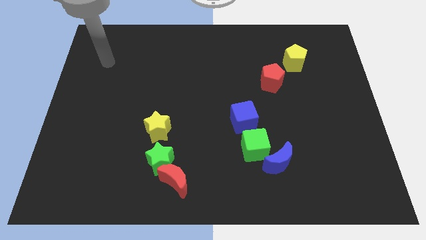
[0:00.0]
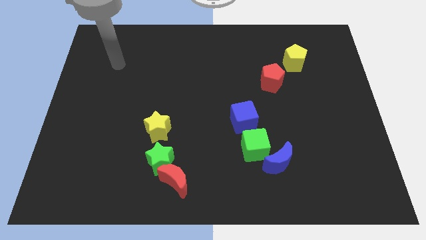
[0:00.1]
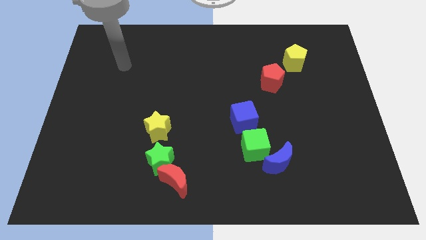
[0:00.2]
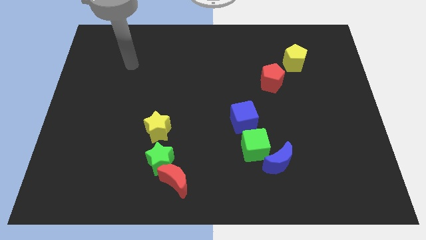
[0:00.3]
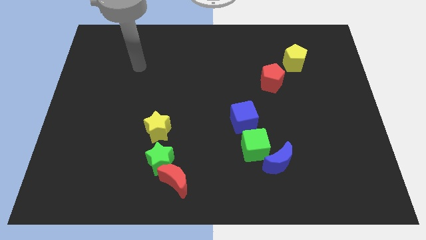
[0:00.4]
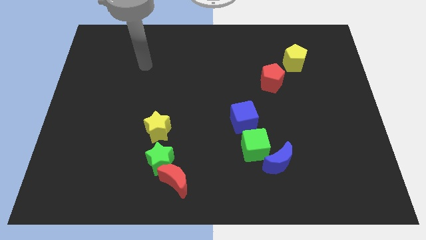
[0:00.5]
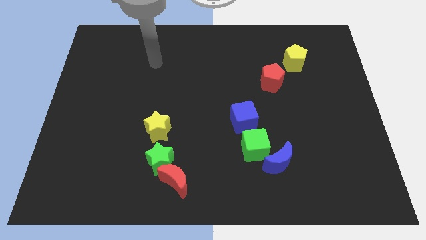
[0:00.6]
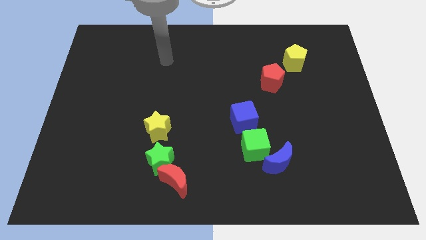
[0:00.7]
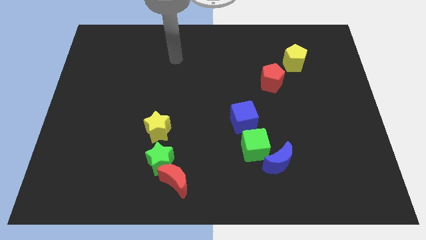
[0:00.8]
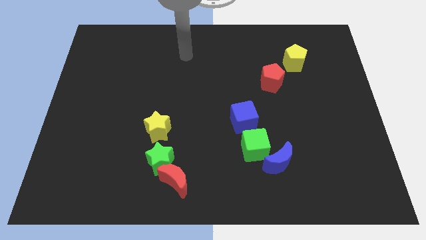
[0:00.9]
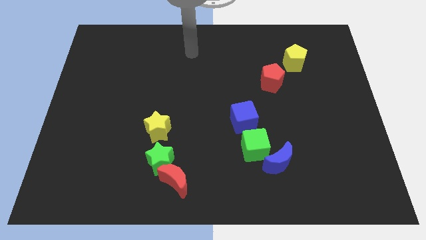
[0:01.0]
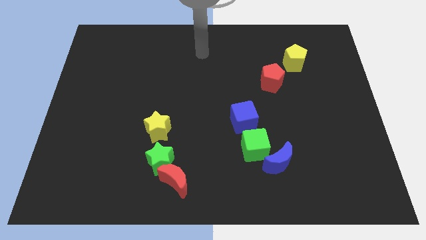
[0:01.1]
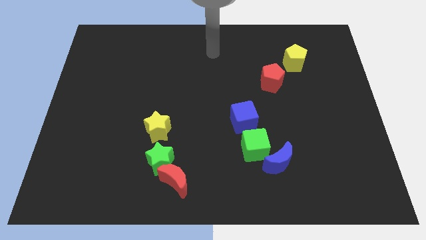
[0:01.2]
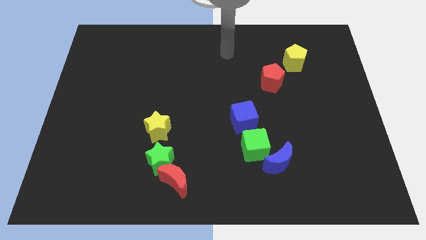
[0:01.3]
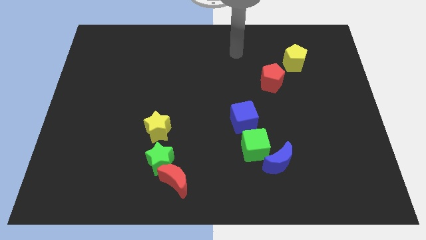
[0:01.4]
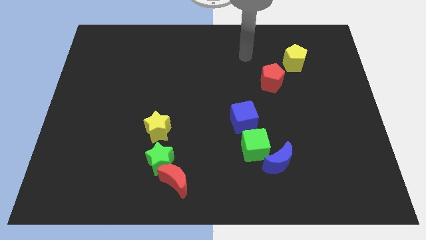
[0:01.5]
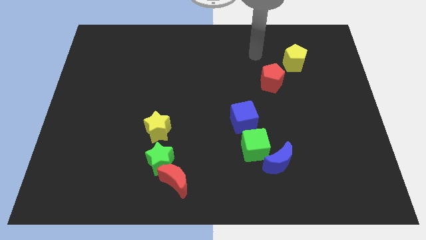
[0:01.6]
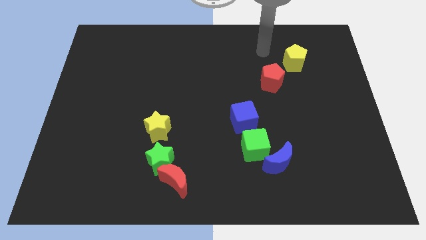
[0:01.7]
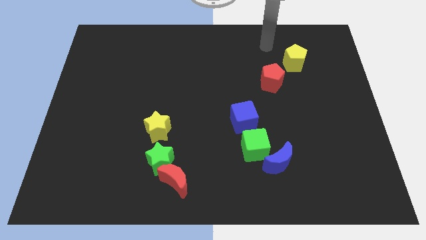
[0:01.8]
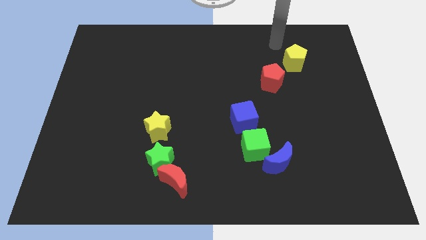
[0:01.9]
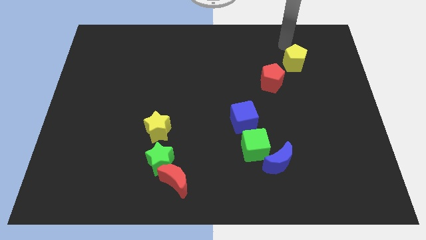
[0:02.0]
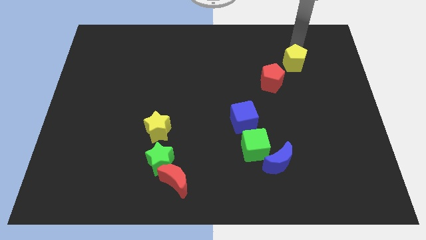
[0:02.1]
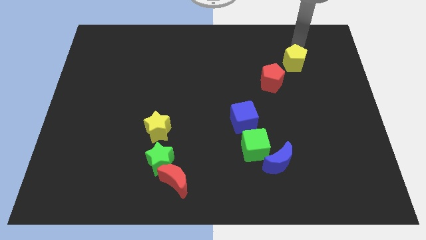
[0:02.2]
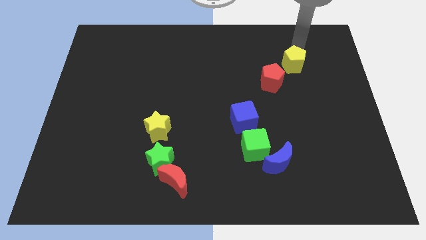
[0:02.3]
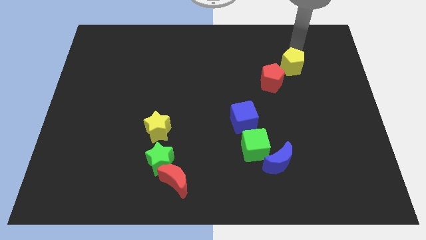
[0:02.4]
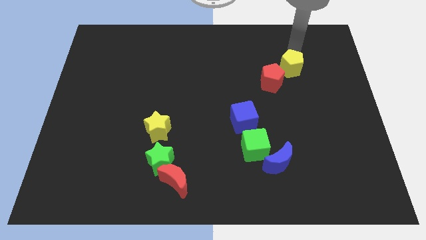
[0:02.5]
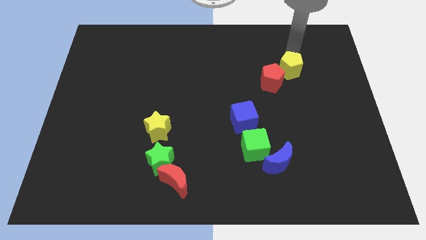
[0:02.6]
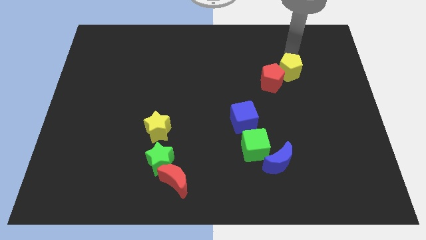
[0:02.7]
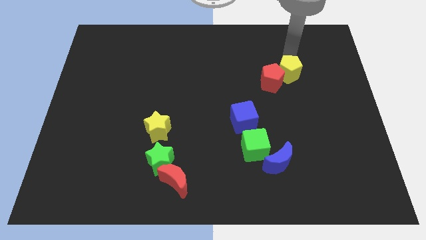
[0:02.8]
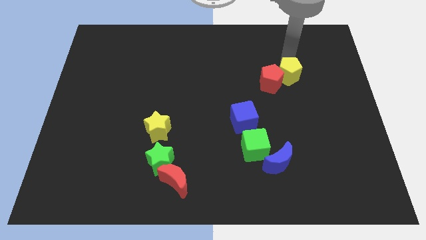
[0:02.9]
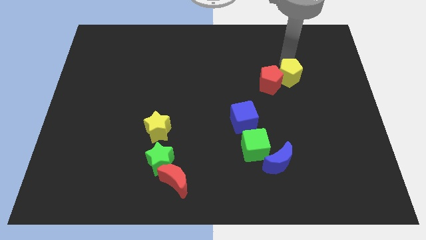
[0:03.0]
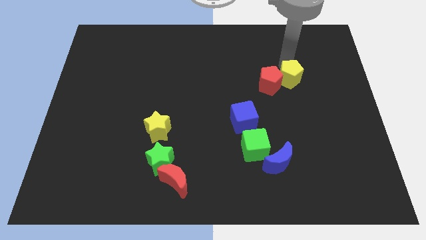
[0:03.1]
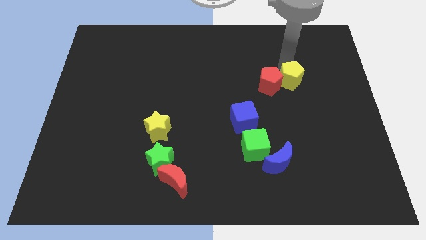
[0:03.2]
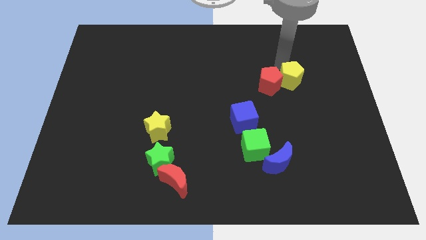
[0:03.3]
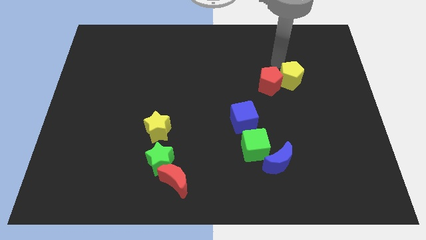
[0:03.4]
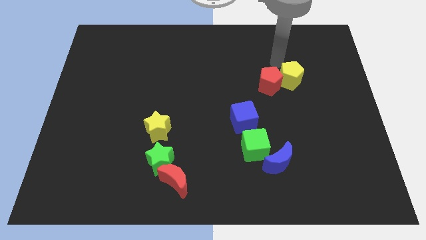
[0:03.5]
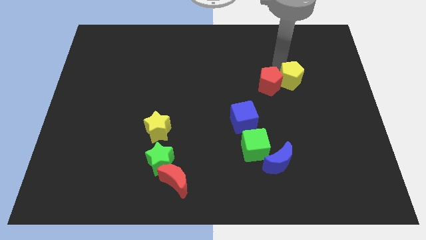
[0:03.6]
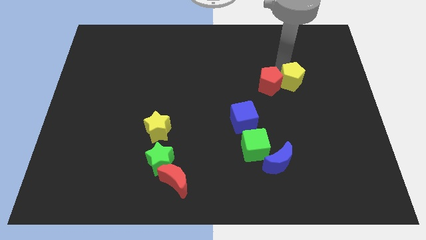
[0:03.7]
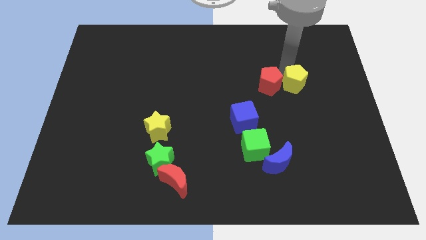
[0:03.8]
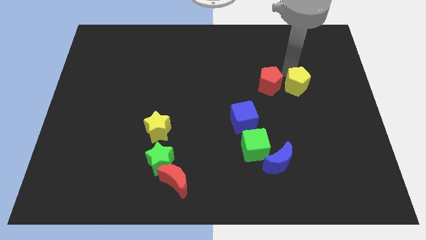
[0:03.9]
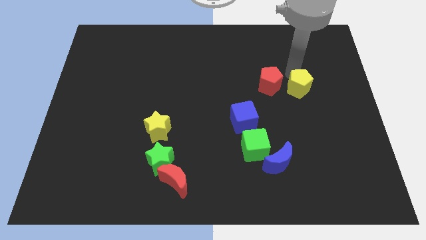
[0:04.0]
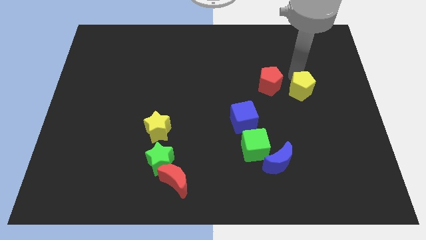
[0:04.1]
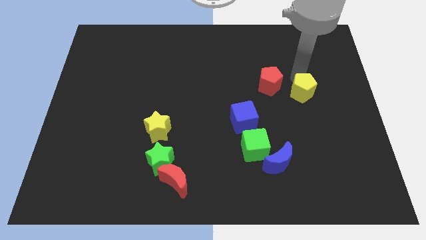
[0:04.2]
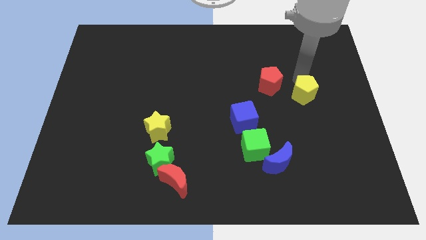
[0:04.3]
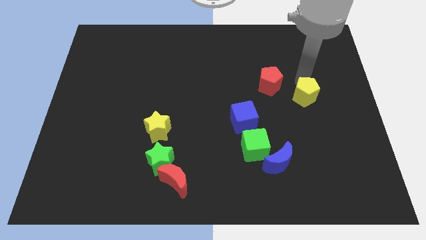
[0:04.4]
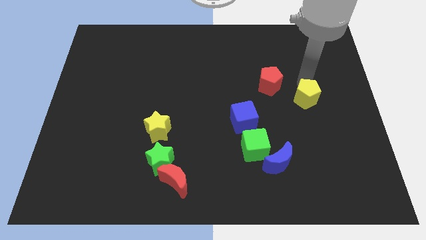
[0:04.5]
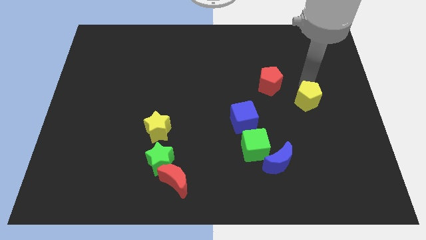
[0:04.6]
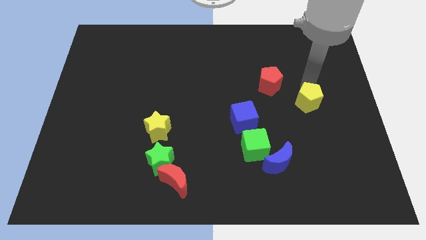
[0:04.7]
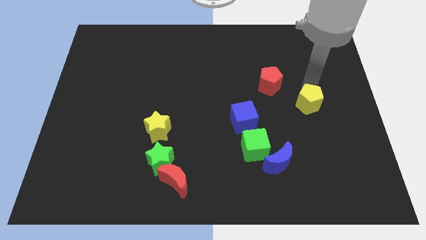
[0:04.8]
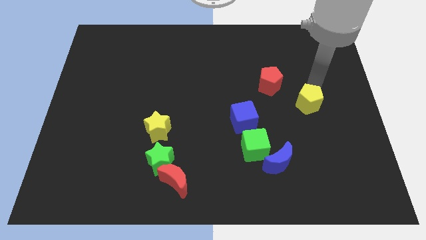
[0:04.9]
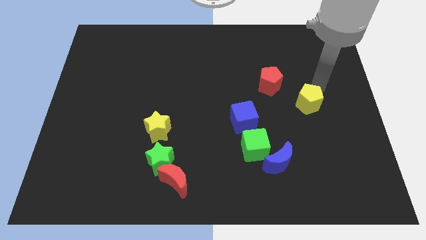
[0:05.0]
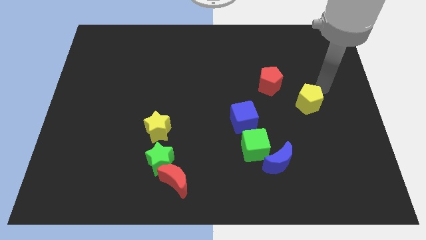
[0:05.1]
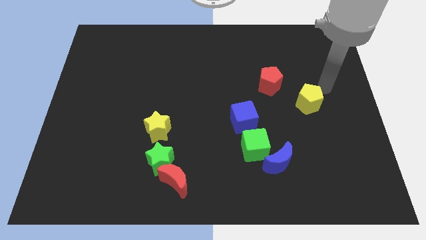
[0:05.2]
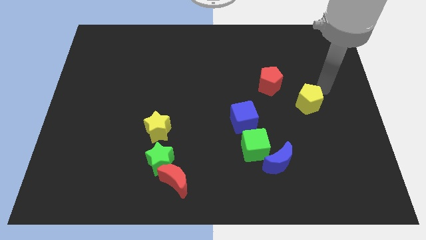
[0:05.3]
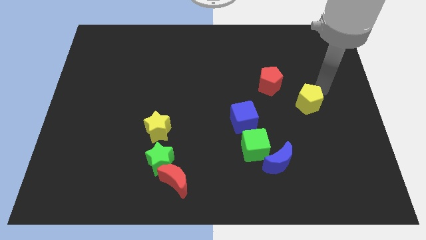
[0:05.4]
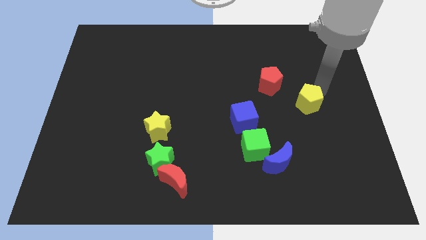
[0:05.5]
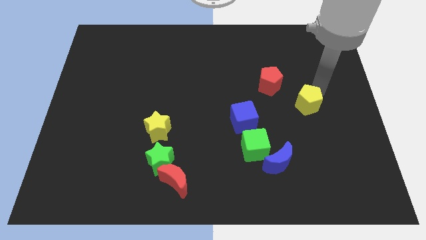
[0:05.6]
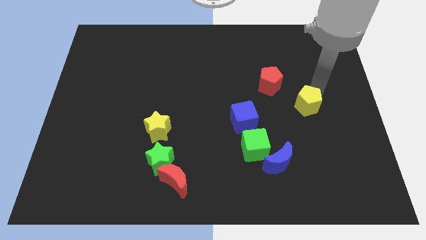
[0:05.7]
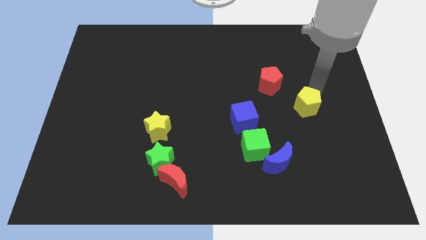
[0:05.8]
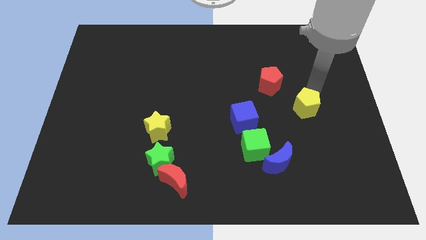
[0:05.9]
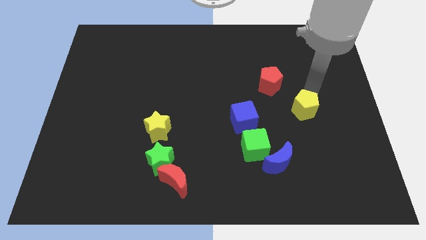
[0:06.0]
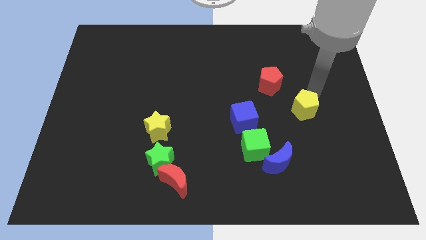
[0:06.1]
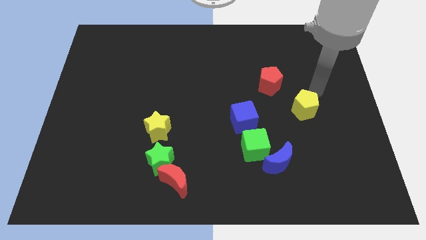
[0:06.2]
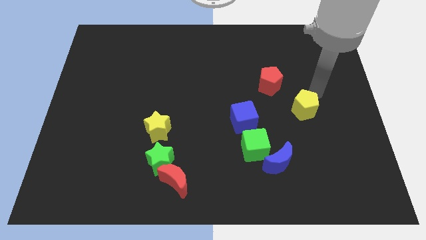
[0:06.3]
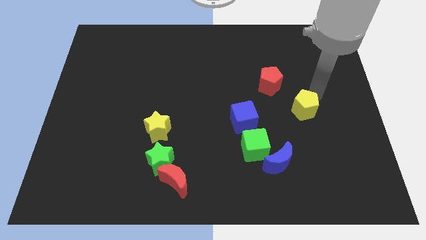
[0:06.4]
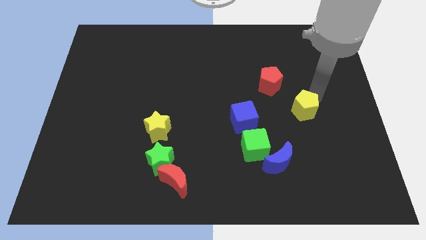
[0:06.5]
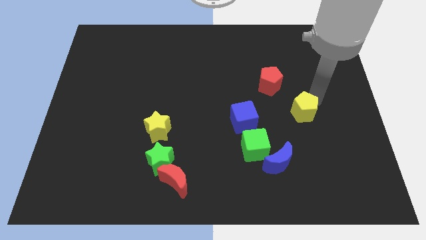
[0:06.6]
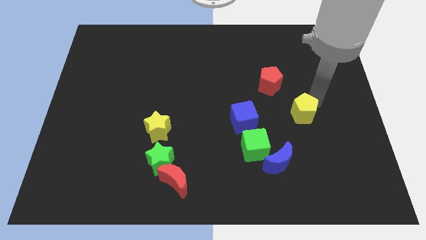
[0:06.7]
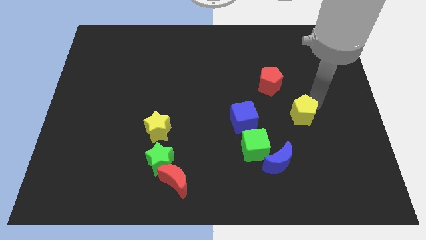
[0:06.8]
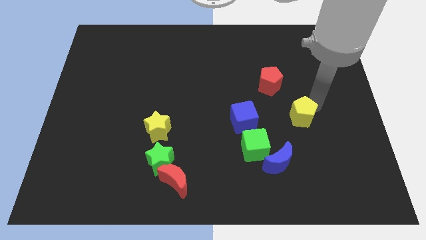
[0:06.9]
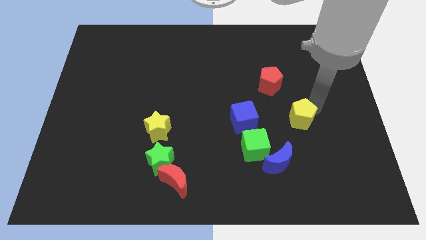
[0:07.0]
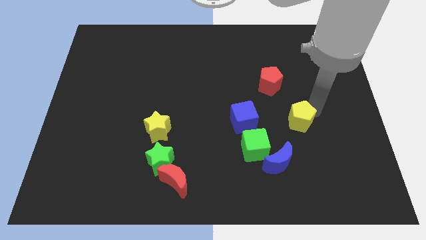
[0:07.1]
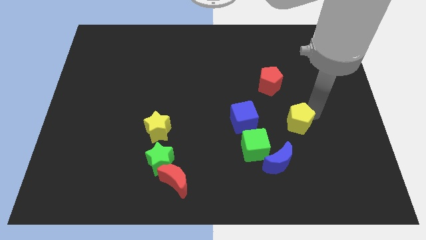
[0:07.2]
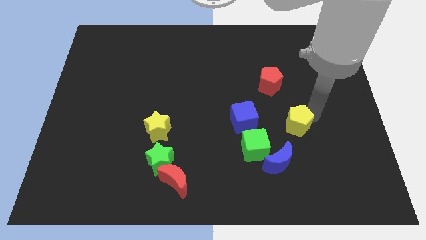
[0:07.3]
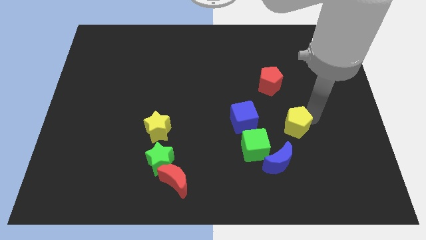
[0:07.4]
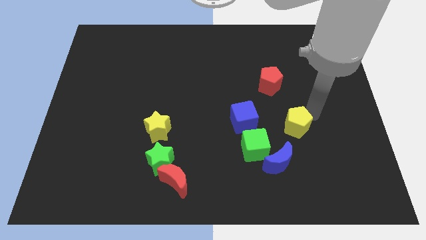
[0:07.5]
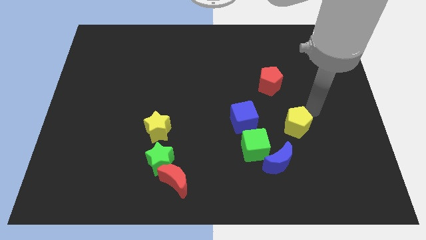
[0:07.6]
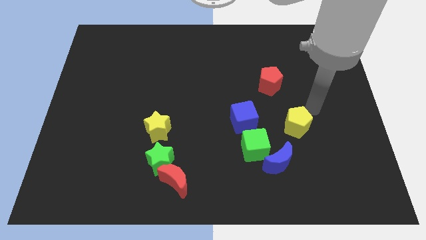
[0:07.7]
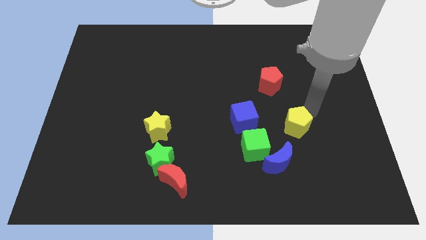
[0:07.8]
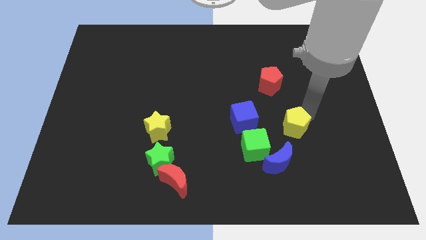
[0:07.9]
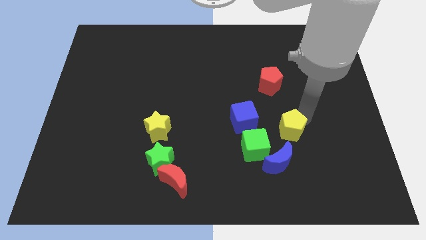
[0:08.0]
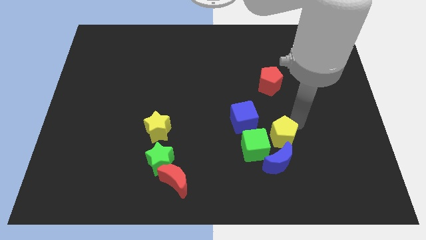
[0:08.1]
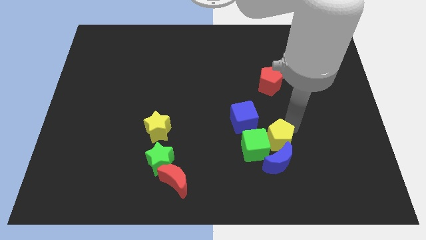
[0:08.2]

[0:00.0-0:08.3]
put the yellow pentagon to the blue moon
